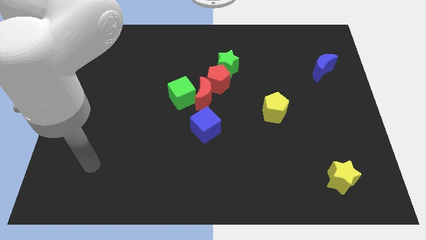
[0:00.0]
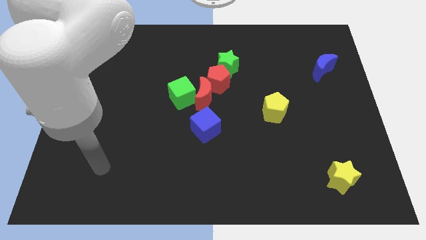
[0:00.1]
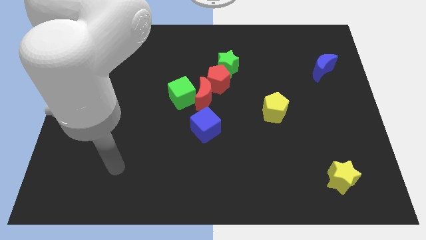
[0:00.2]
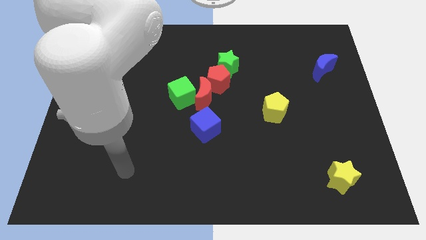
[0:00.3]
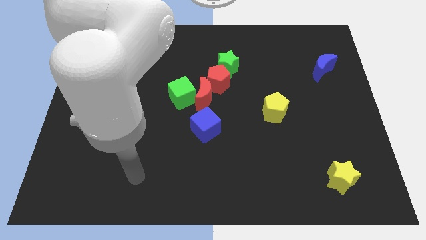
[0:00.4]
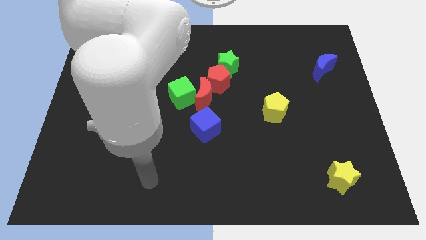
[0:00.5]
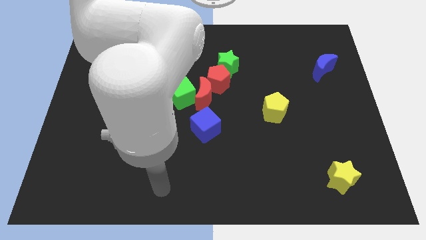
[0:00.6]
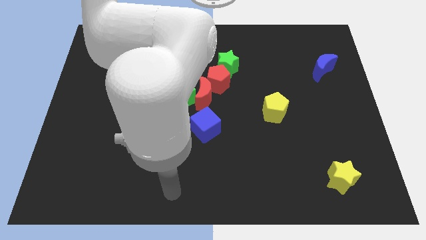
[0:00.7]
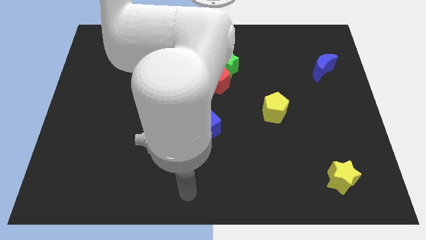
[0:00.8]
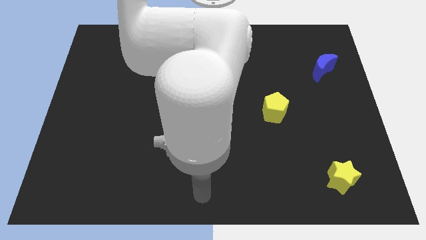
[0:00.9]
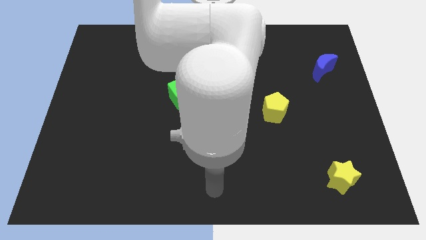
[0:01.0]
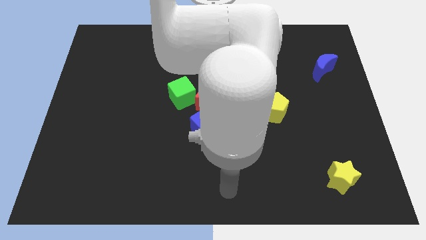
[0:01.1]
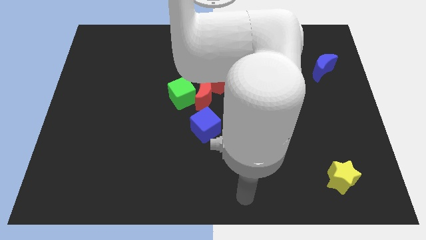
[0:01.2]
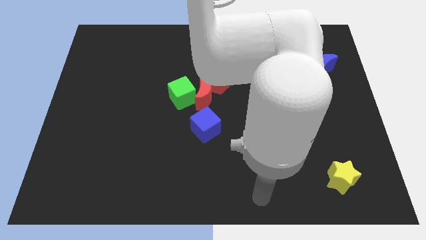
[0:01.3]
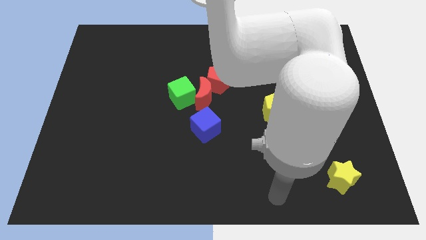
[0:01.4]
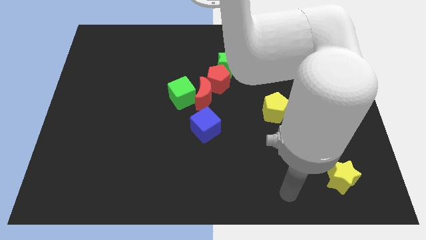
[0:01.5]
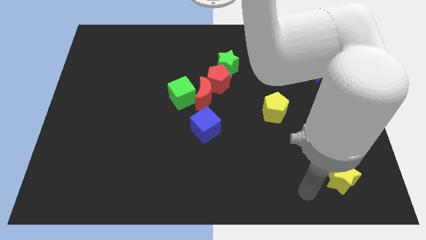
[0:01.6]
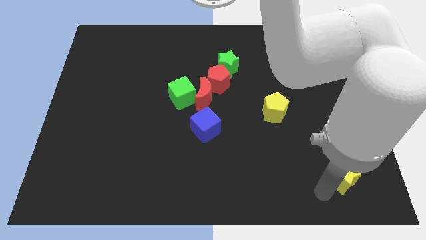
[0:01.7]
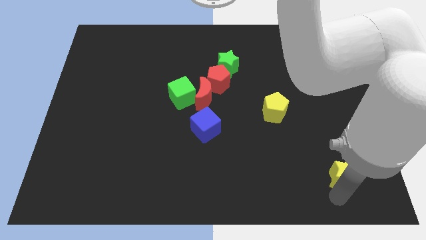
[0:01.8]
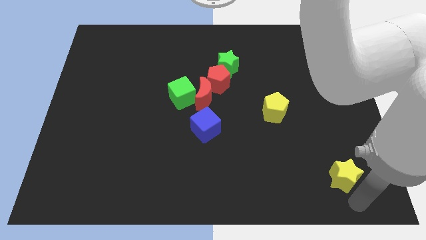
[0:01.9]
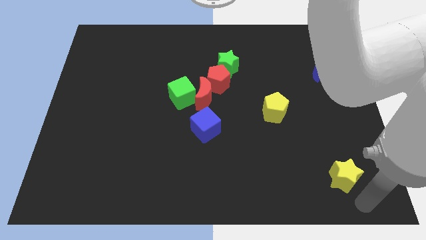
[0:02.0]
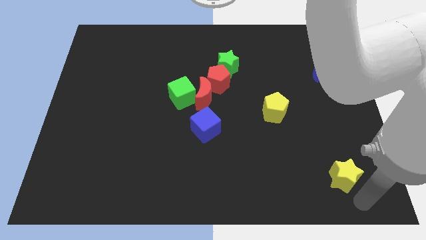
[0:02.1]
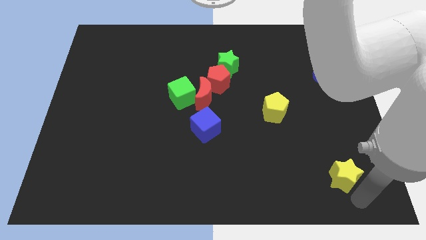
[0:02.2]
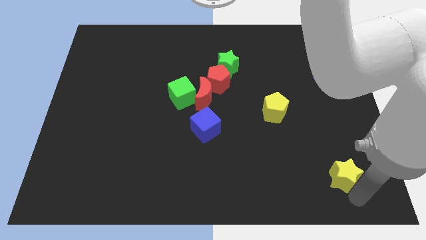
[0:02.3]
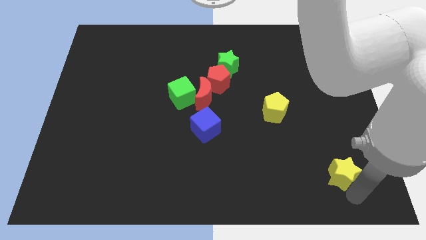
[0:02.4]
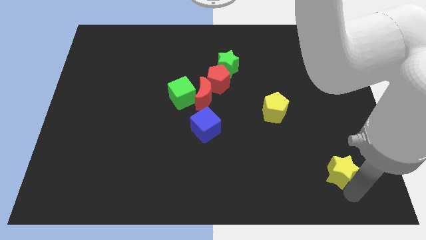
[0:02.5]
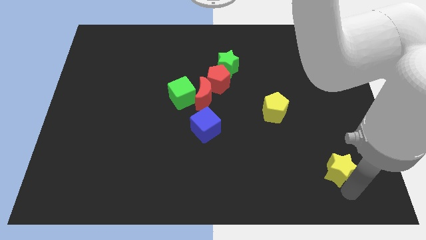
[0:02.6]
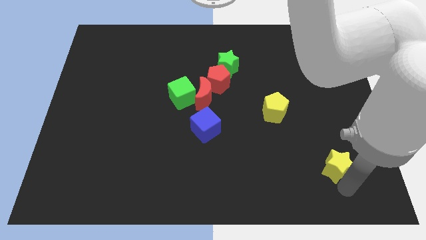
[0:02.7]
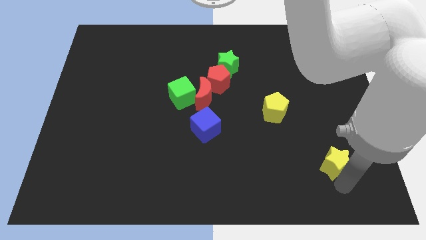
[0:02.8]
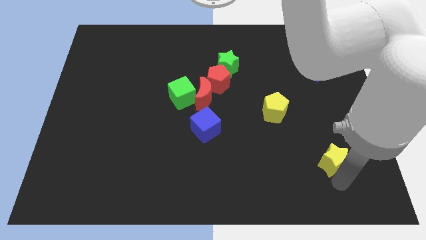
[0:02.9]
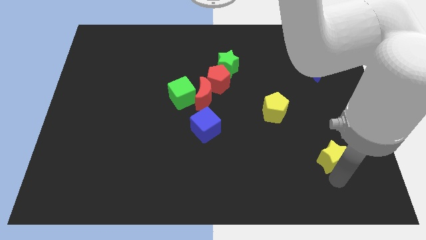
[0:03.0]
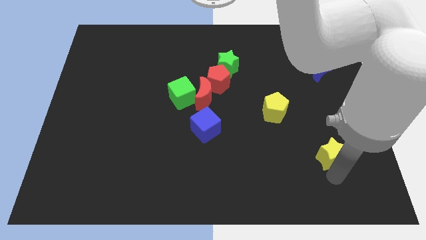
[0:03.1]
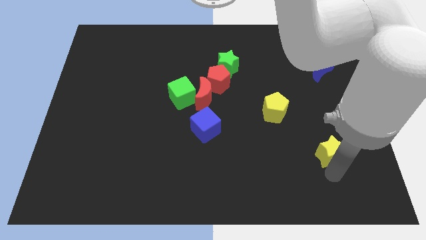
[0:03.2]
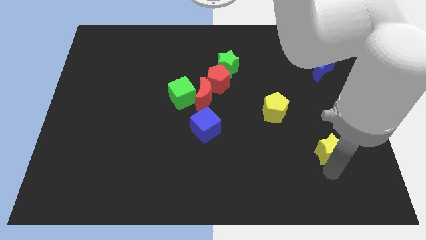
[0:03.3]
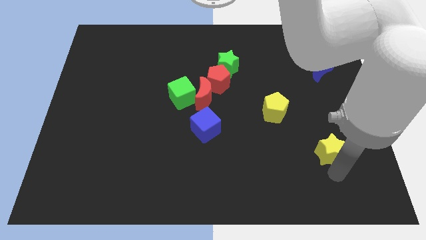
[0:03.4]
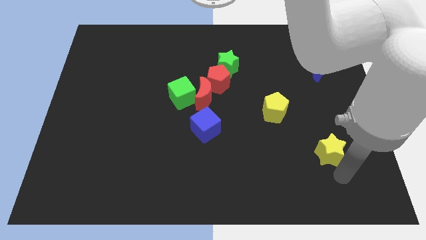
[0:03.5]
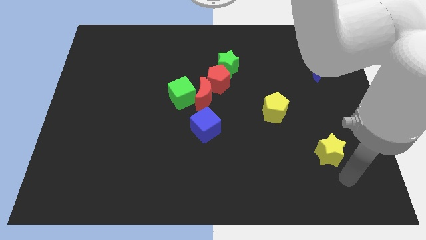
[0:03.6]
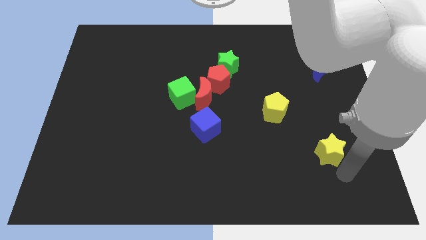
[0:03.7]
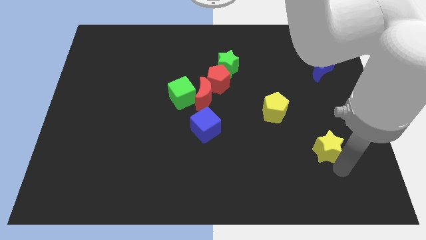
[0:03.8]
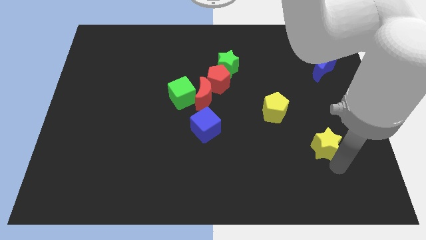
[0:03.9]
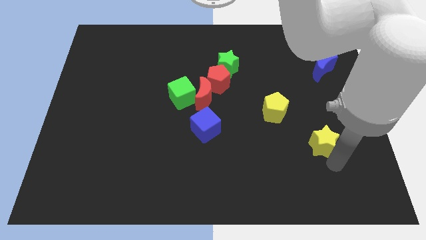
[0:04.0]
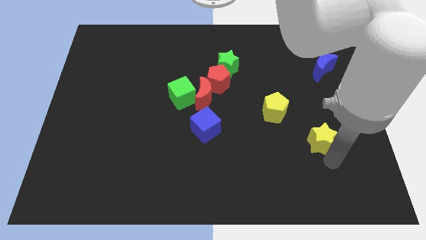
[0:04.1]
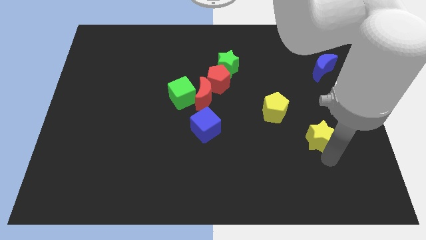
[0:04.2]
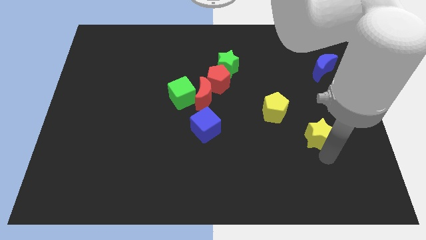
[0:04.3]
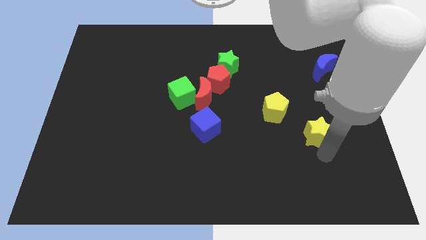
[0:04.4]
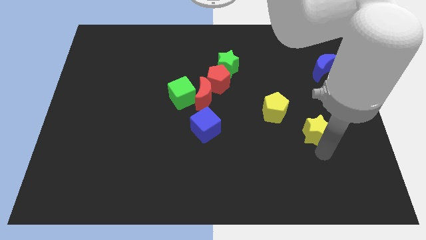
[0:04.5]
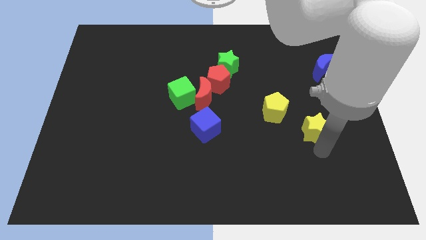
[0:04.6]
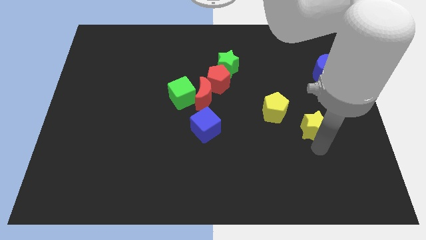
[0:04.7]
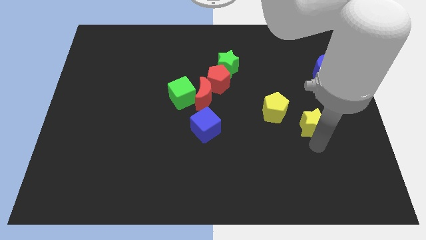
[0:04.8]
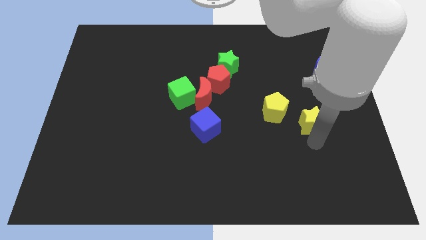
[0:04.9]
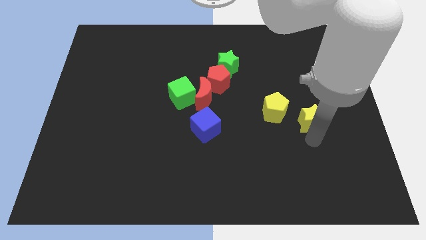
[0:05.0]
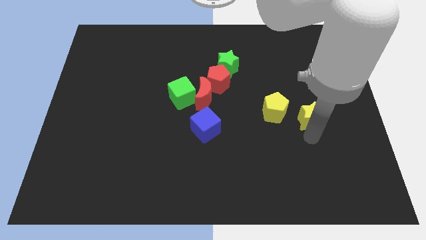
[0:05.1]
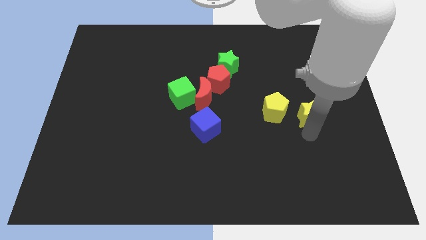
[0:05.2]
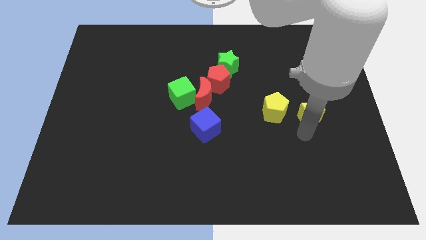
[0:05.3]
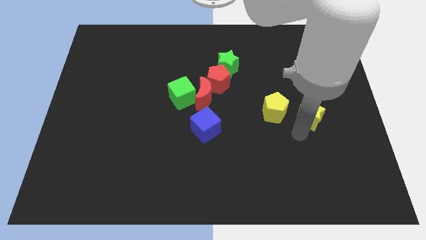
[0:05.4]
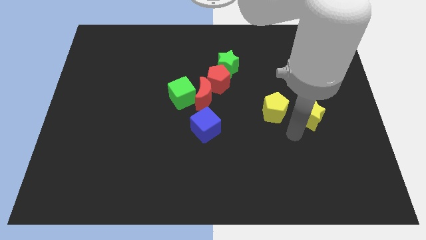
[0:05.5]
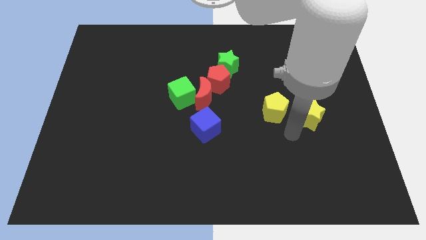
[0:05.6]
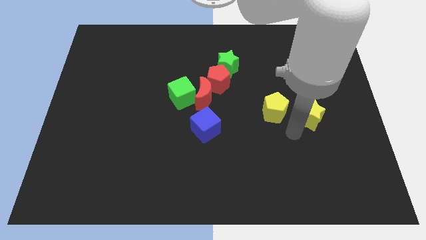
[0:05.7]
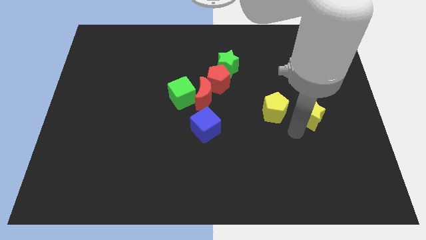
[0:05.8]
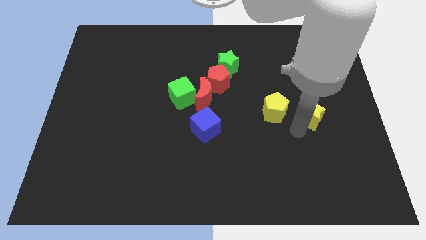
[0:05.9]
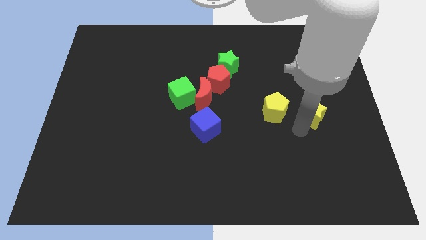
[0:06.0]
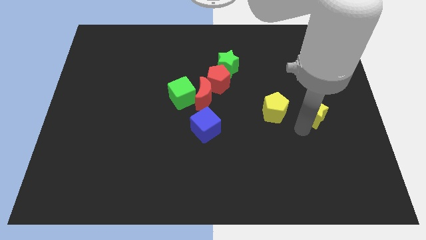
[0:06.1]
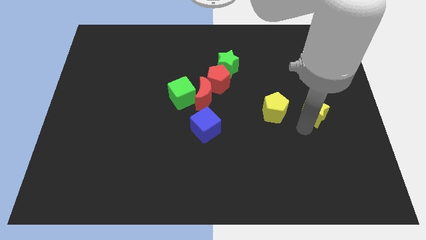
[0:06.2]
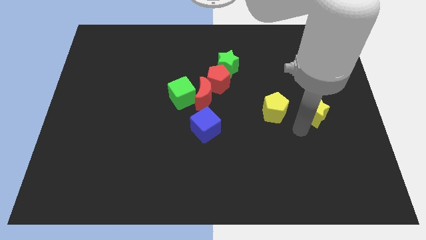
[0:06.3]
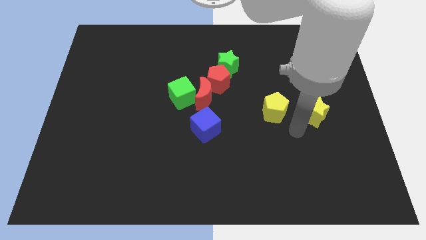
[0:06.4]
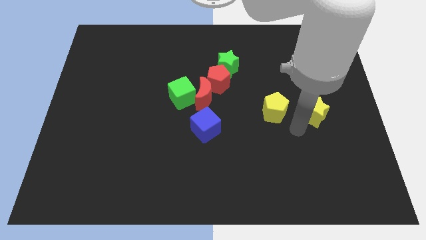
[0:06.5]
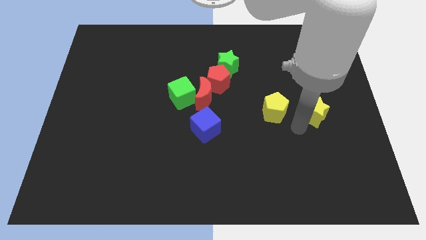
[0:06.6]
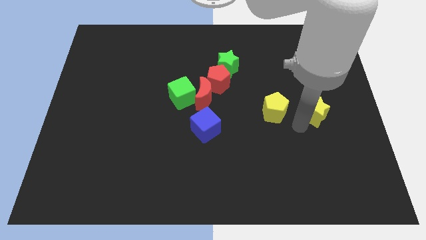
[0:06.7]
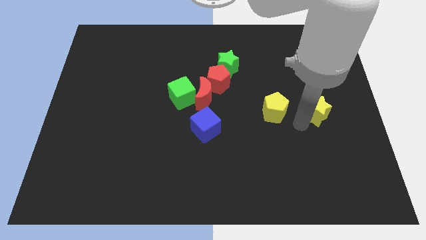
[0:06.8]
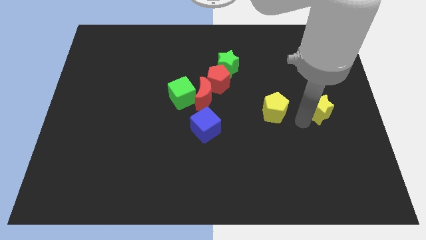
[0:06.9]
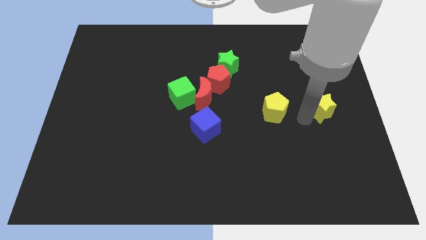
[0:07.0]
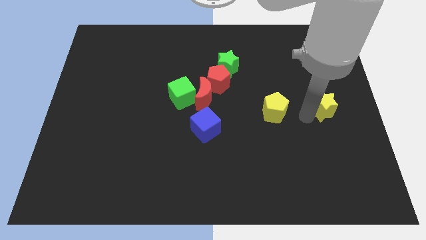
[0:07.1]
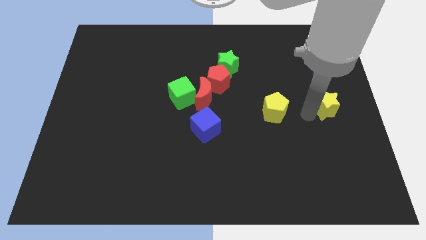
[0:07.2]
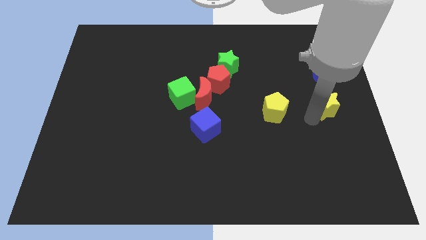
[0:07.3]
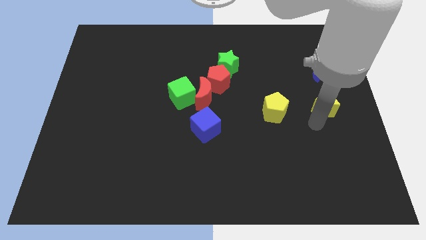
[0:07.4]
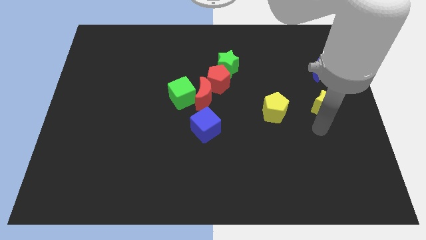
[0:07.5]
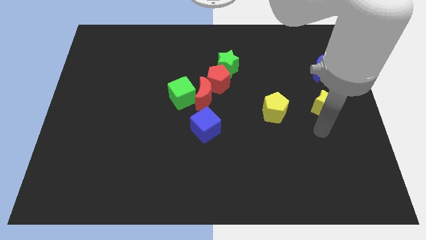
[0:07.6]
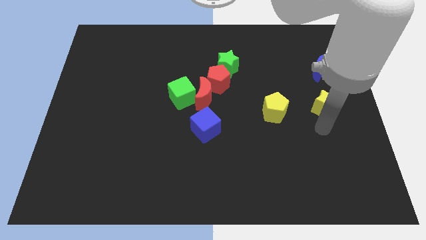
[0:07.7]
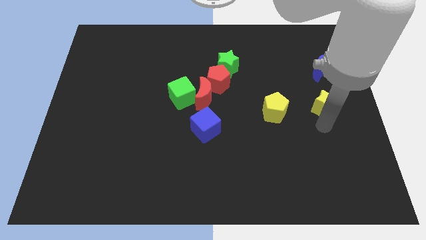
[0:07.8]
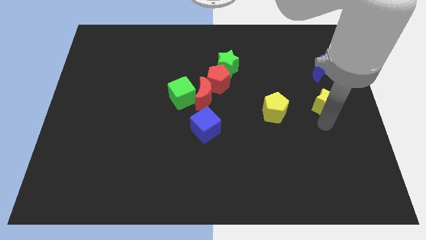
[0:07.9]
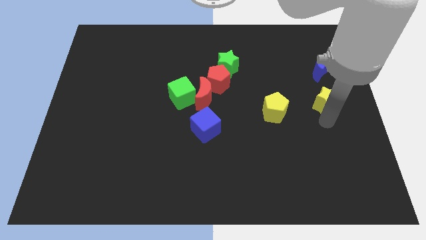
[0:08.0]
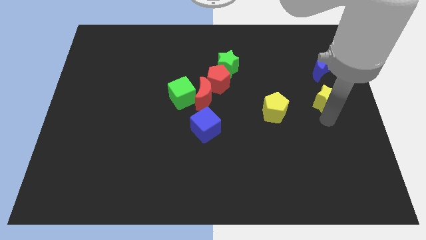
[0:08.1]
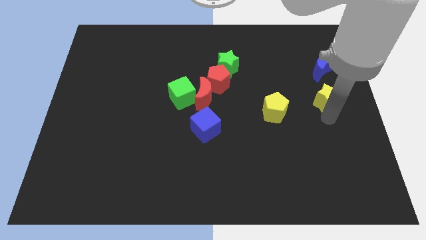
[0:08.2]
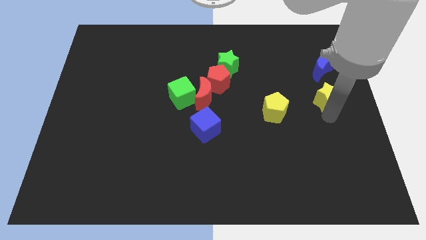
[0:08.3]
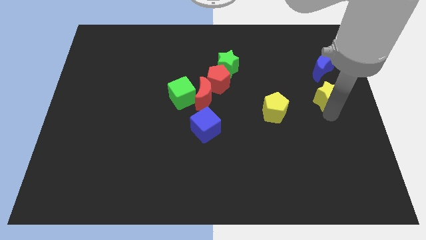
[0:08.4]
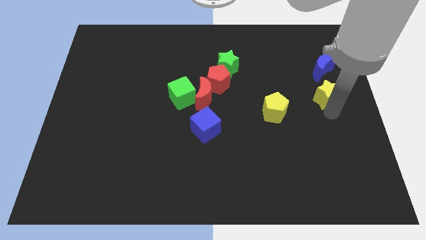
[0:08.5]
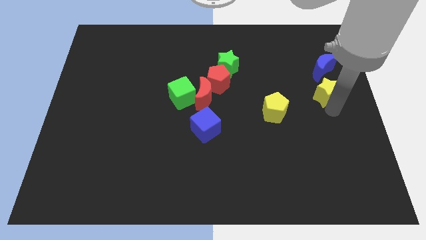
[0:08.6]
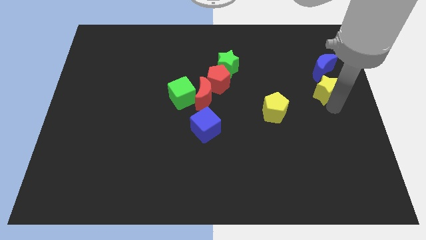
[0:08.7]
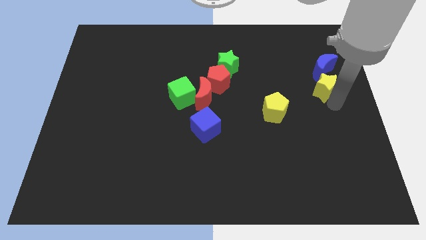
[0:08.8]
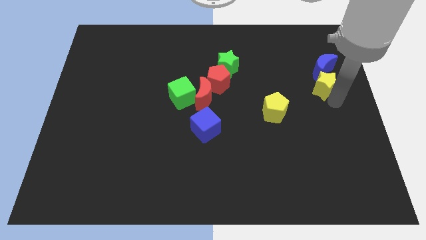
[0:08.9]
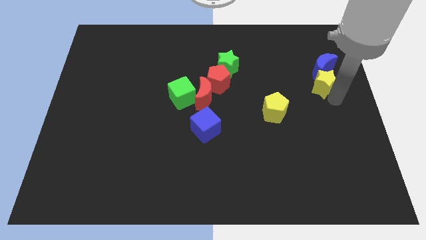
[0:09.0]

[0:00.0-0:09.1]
push the yellow star towards the blue moon
